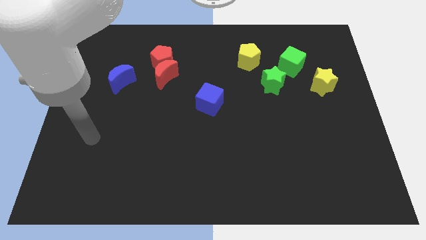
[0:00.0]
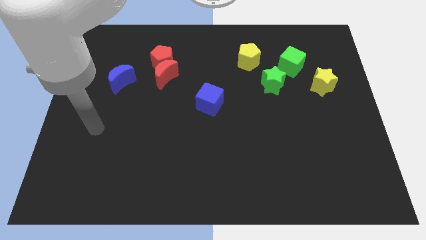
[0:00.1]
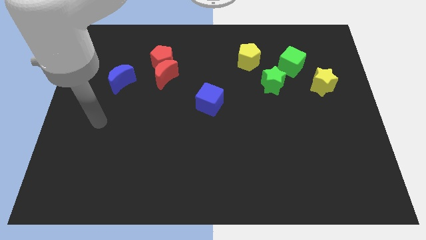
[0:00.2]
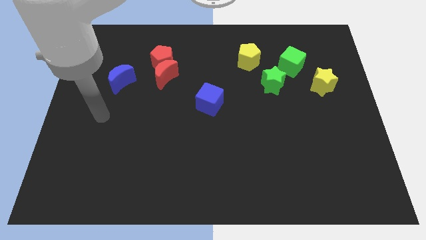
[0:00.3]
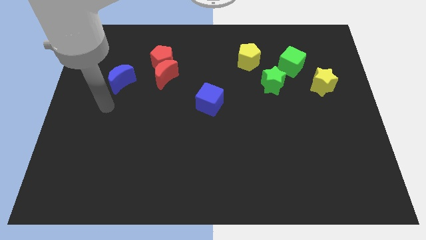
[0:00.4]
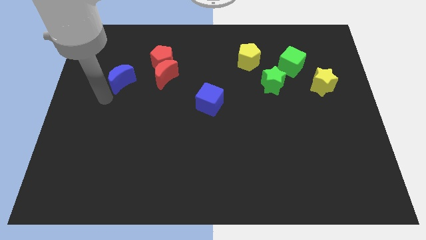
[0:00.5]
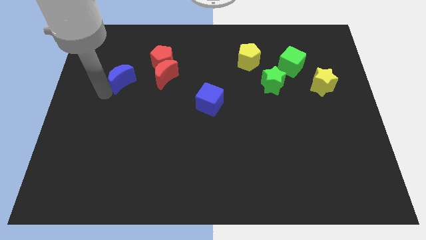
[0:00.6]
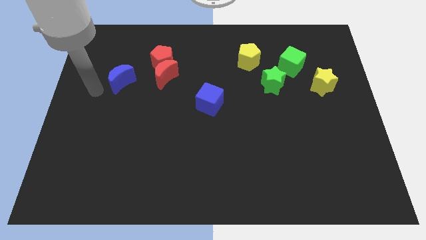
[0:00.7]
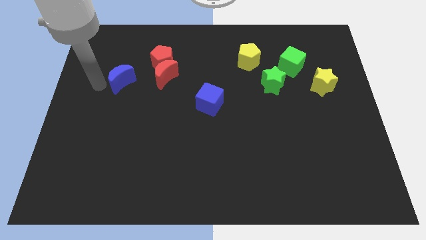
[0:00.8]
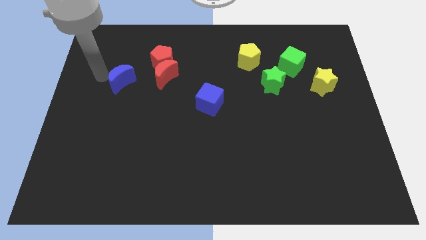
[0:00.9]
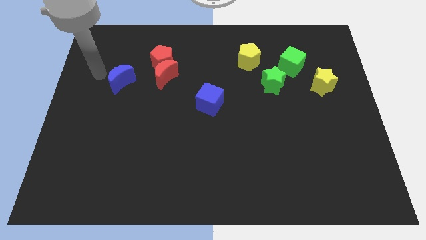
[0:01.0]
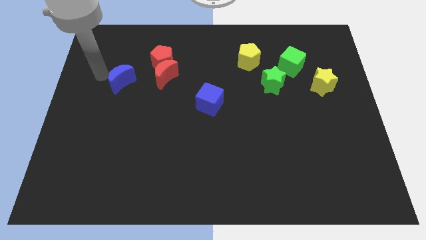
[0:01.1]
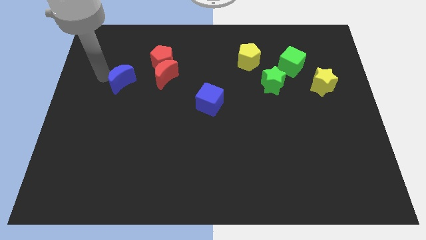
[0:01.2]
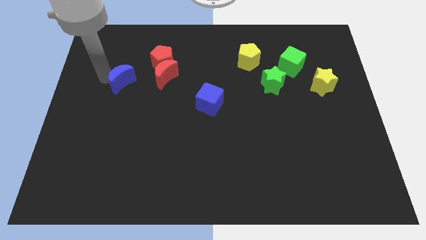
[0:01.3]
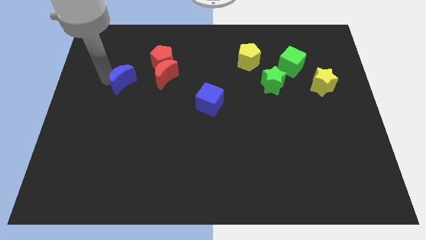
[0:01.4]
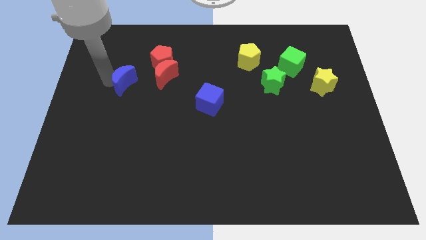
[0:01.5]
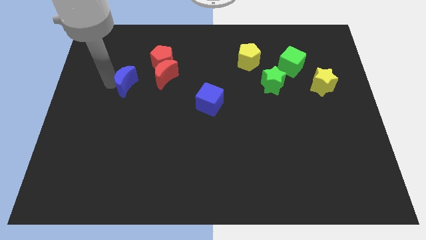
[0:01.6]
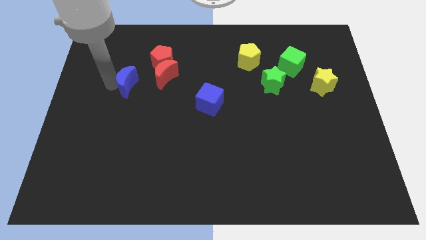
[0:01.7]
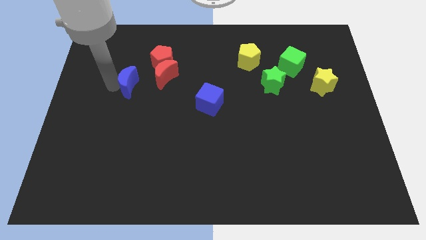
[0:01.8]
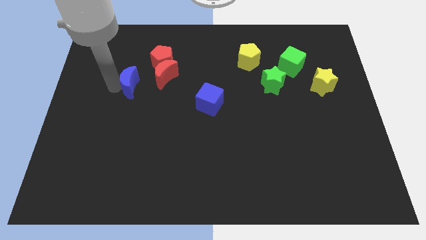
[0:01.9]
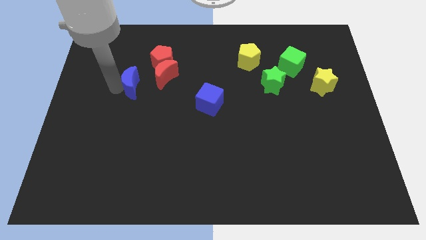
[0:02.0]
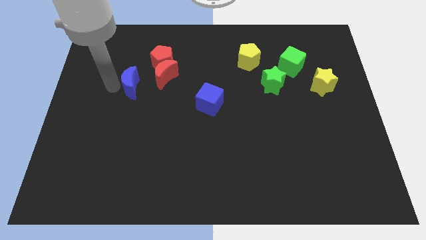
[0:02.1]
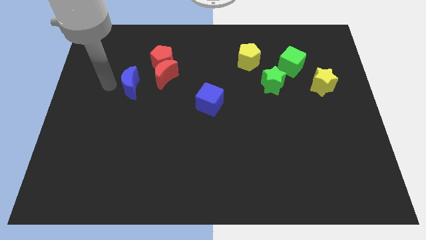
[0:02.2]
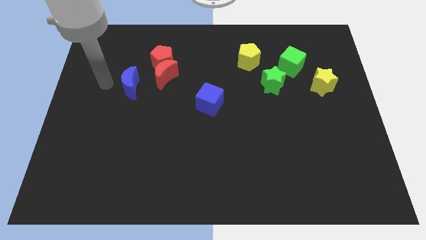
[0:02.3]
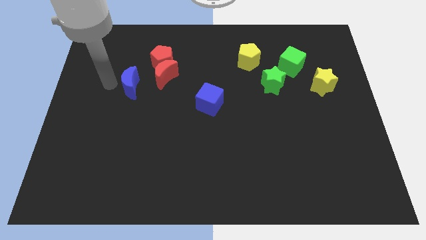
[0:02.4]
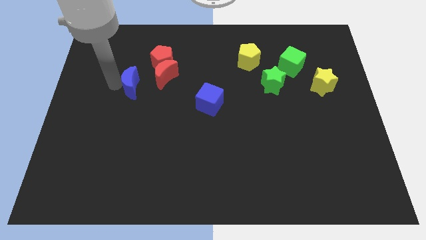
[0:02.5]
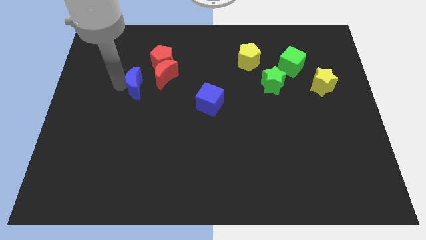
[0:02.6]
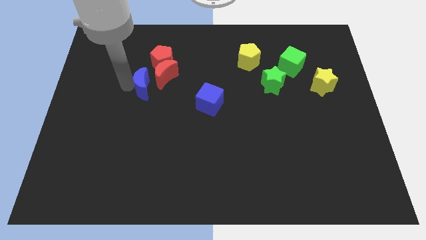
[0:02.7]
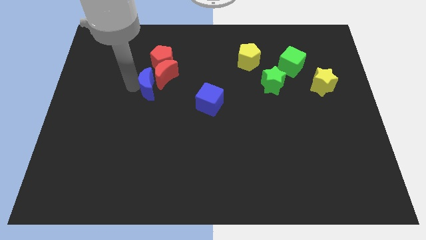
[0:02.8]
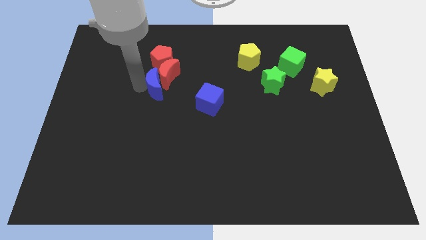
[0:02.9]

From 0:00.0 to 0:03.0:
push the blue moon a little right

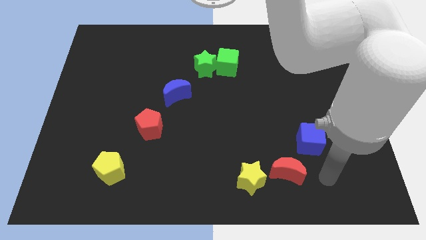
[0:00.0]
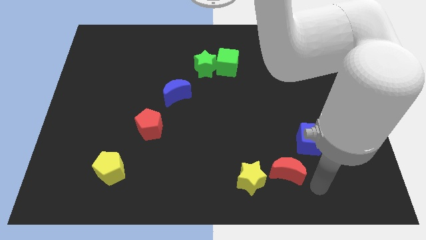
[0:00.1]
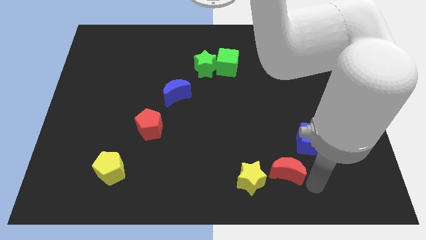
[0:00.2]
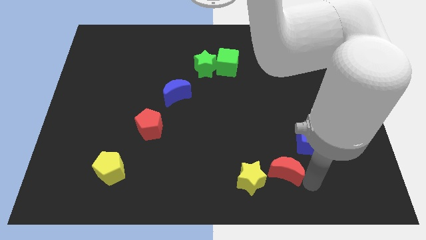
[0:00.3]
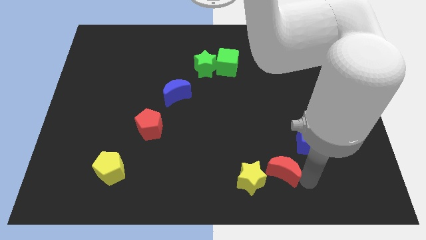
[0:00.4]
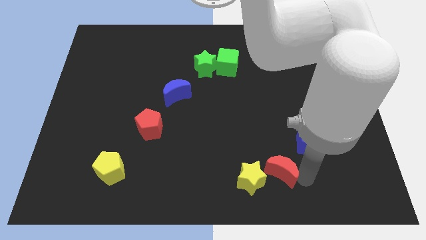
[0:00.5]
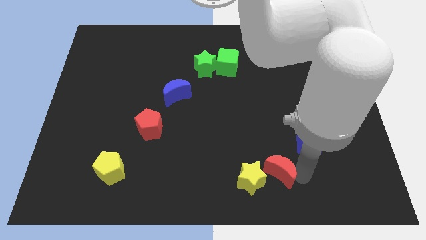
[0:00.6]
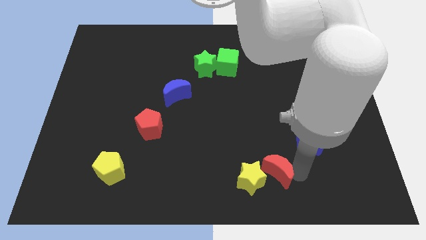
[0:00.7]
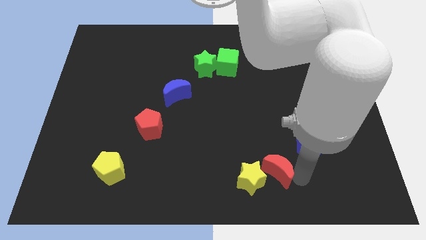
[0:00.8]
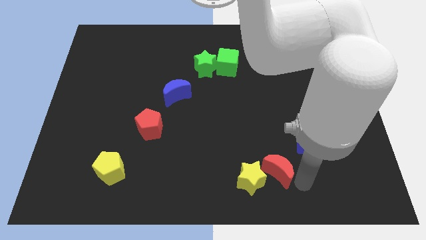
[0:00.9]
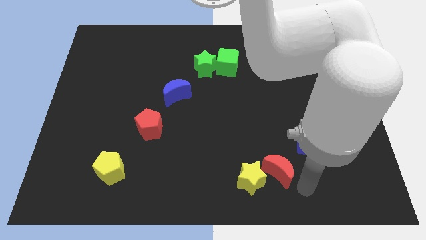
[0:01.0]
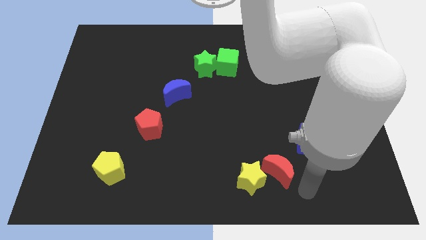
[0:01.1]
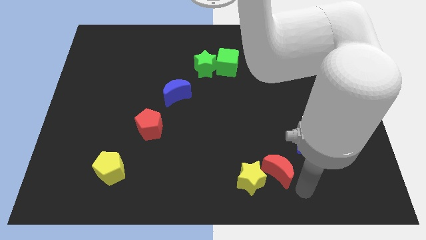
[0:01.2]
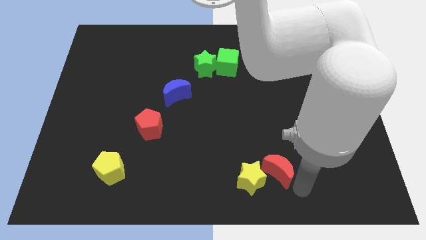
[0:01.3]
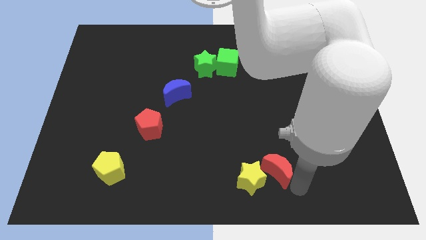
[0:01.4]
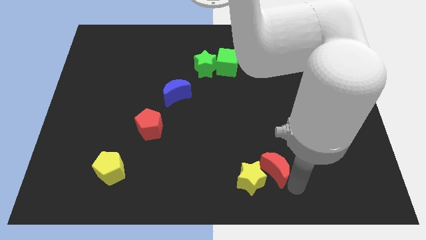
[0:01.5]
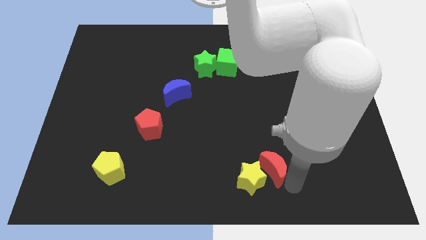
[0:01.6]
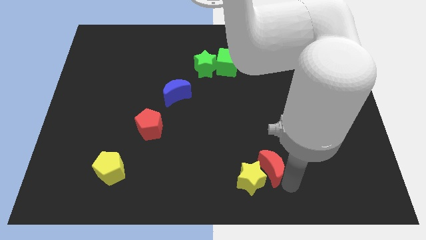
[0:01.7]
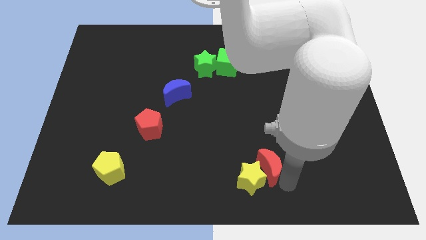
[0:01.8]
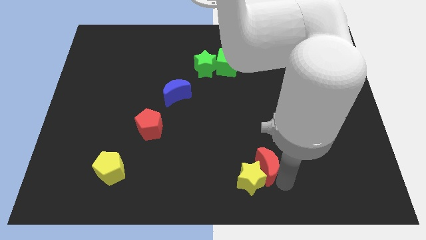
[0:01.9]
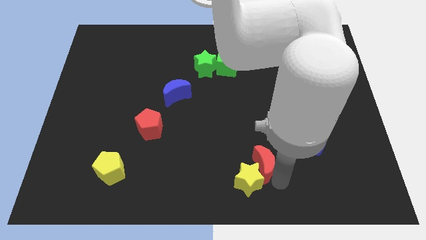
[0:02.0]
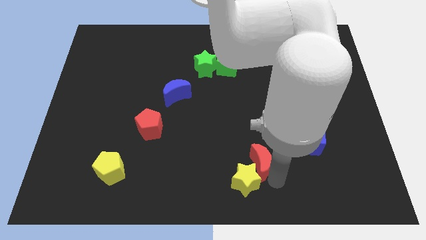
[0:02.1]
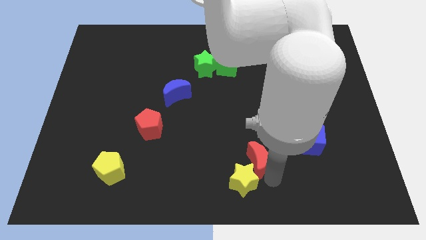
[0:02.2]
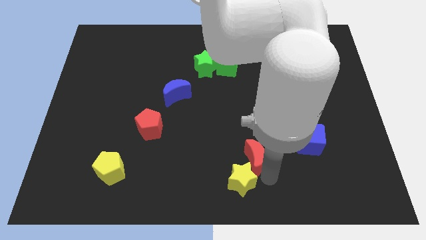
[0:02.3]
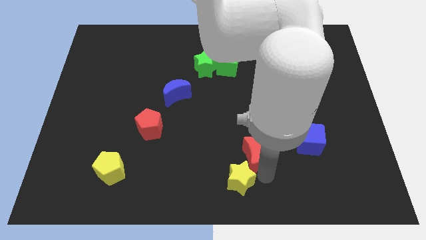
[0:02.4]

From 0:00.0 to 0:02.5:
push the red moon a little diagonally upwards and to the left

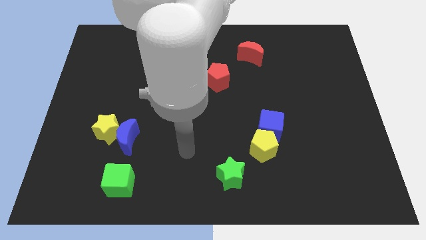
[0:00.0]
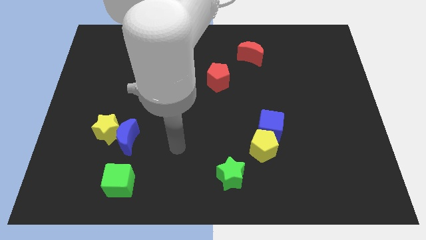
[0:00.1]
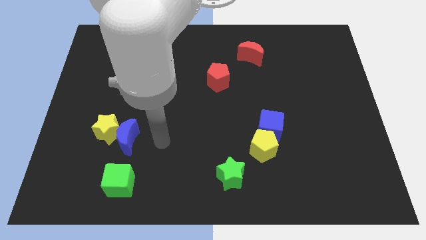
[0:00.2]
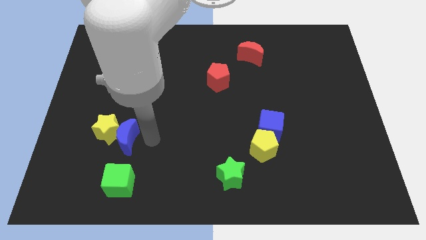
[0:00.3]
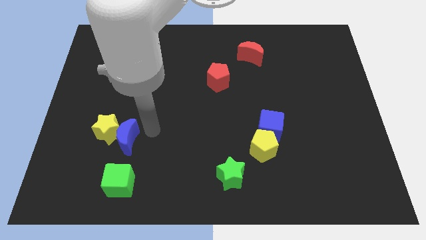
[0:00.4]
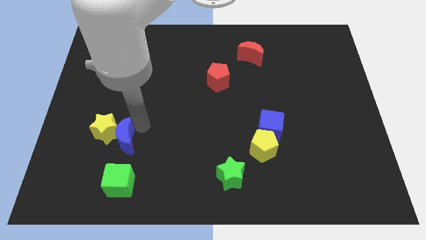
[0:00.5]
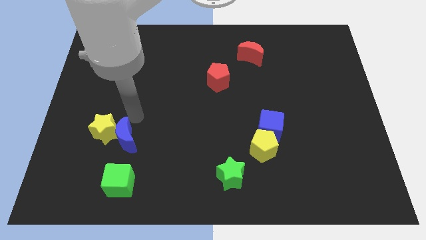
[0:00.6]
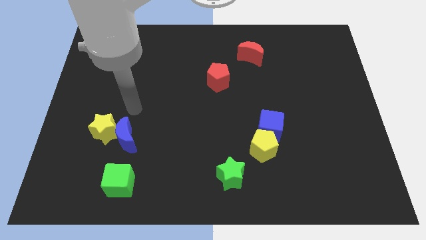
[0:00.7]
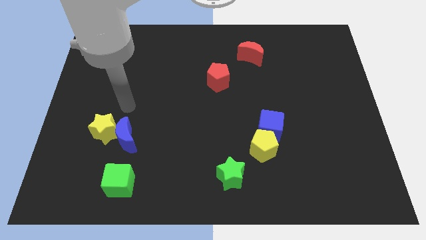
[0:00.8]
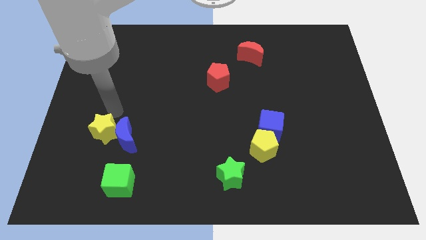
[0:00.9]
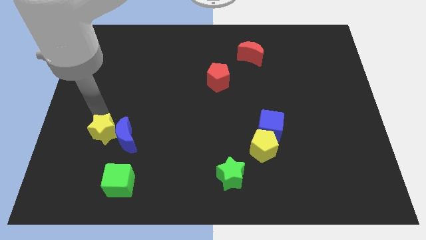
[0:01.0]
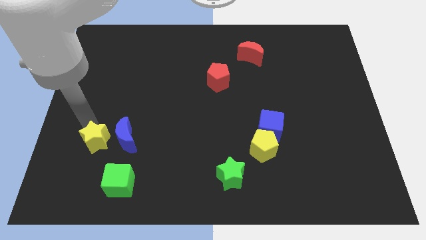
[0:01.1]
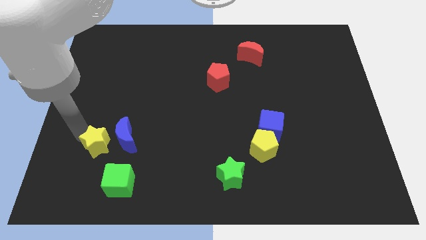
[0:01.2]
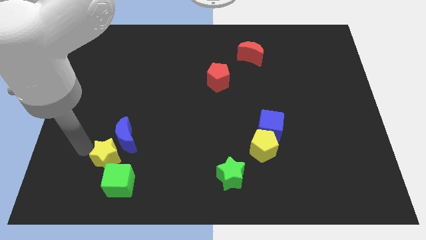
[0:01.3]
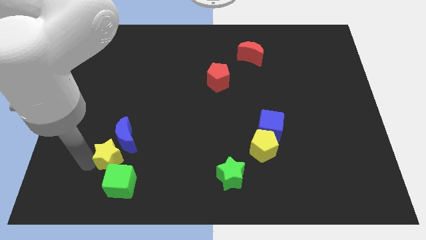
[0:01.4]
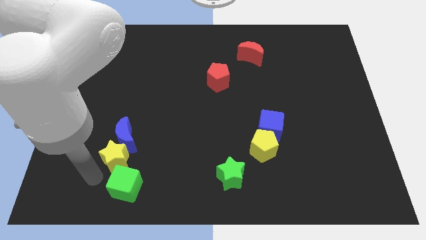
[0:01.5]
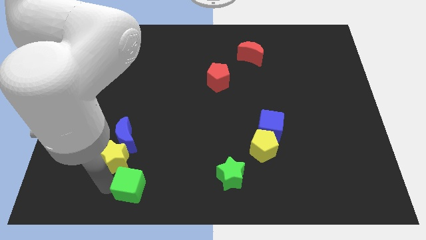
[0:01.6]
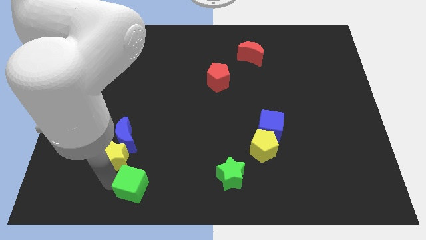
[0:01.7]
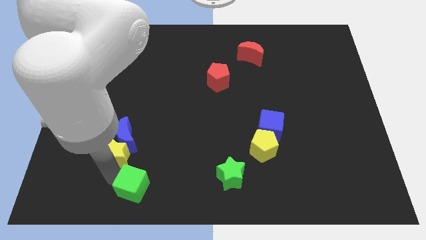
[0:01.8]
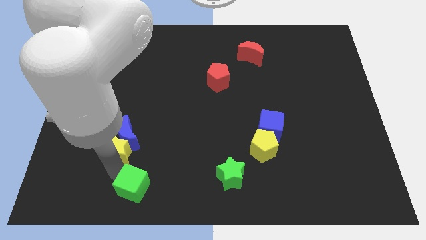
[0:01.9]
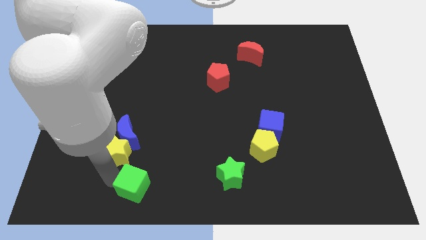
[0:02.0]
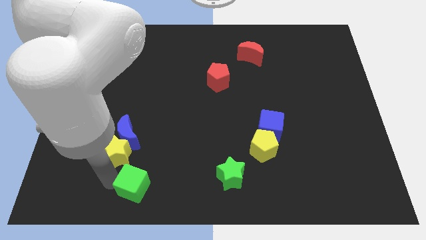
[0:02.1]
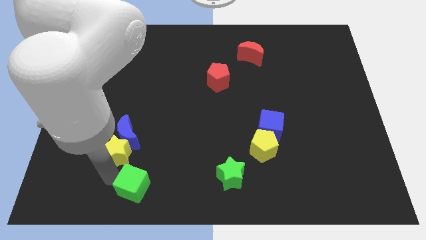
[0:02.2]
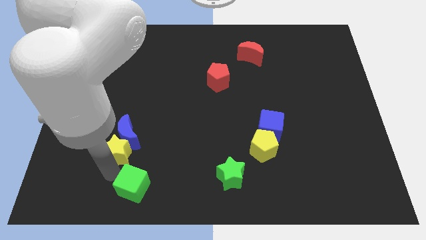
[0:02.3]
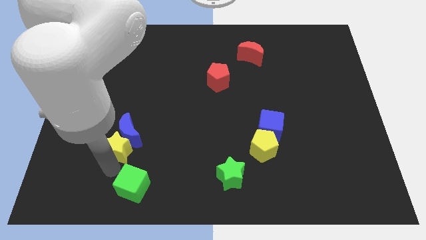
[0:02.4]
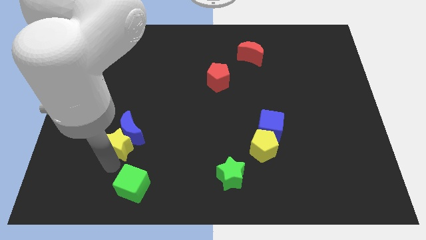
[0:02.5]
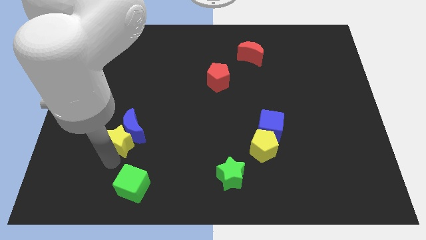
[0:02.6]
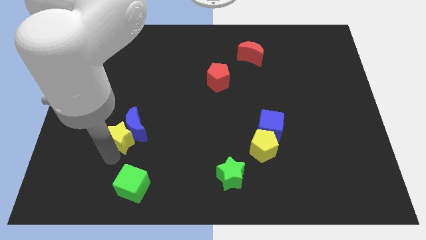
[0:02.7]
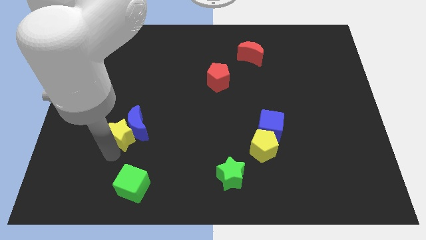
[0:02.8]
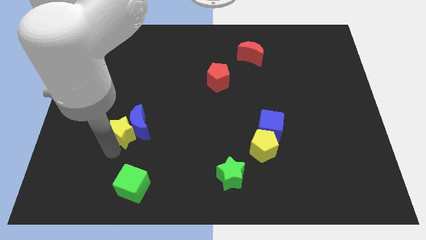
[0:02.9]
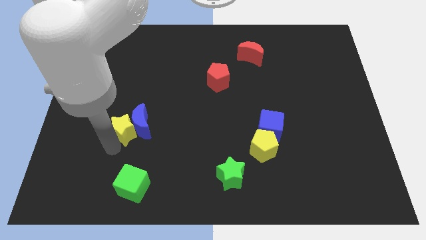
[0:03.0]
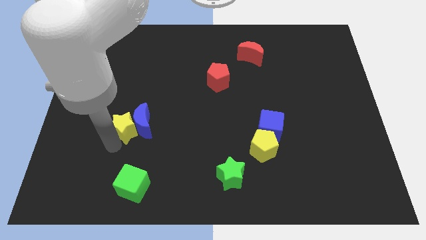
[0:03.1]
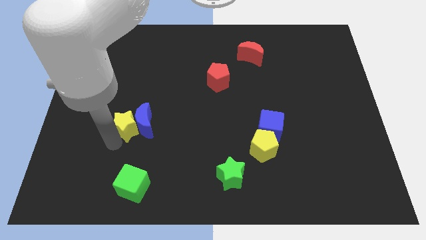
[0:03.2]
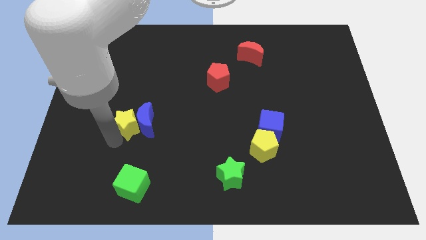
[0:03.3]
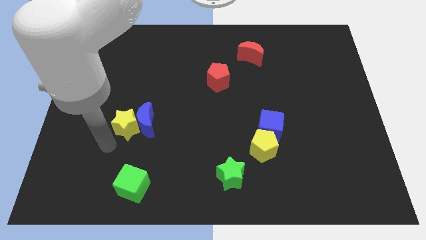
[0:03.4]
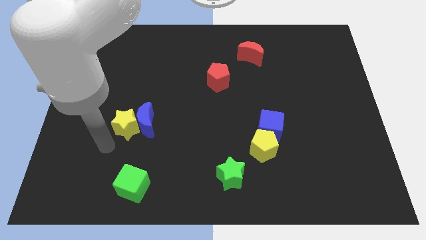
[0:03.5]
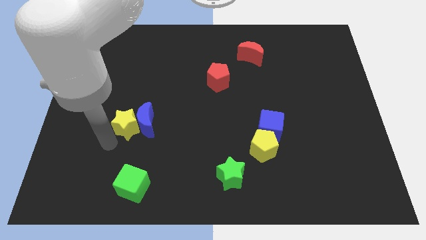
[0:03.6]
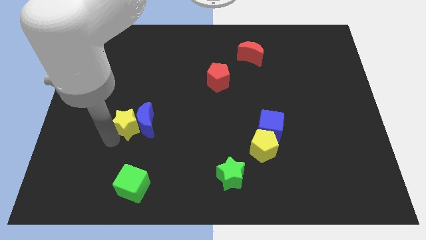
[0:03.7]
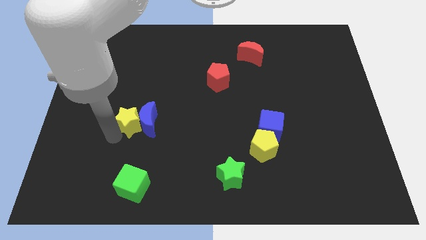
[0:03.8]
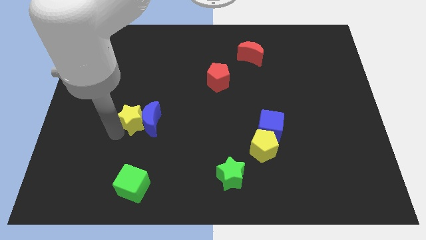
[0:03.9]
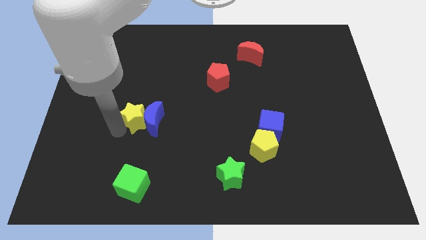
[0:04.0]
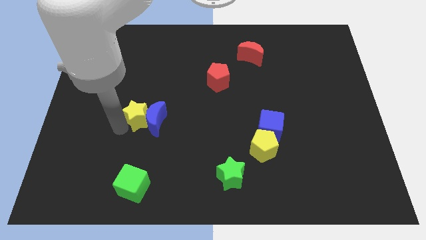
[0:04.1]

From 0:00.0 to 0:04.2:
slide the yellow star up and to the right a little
